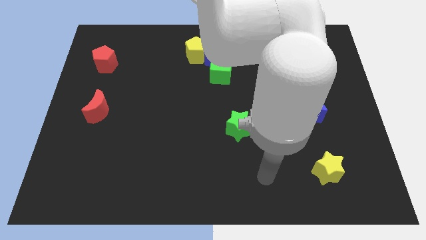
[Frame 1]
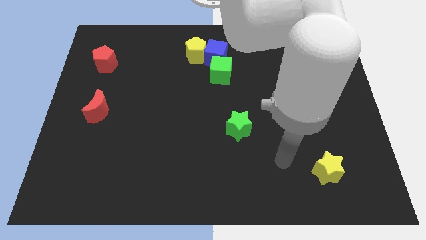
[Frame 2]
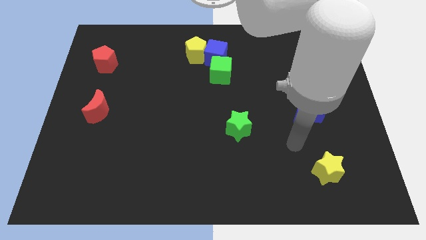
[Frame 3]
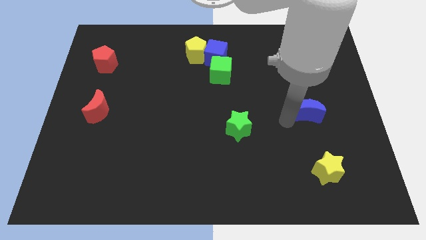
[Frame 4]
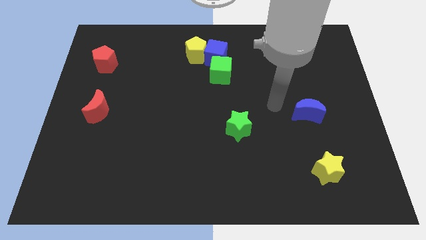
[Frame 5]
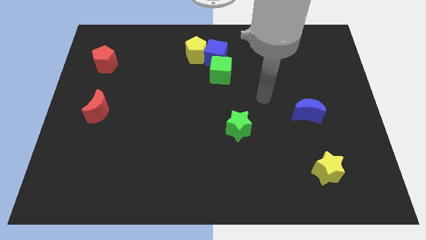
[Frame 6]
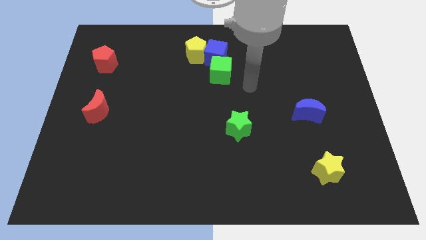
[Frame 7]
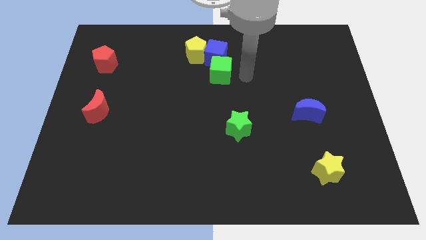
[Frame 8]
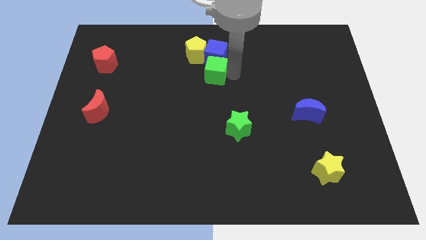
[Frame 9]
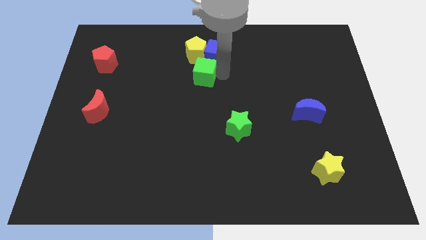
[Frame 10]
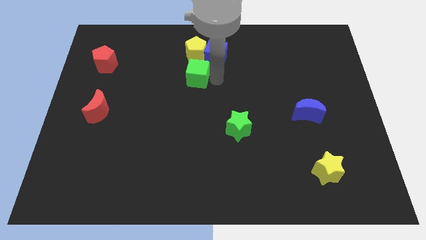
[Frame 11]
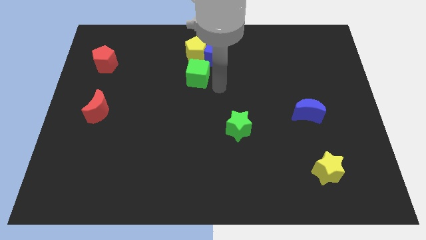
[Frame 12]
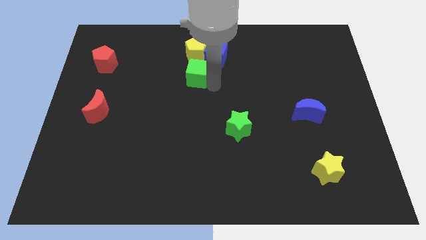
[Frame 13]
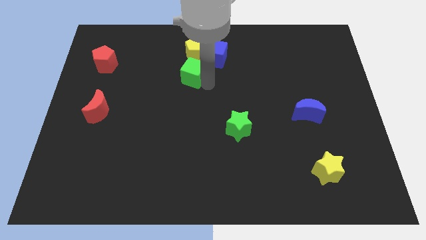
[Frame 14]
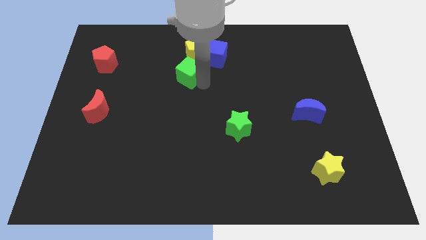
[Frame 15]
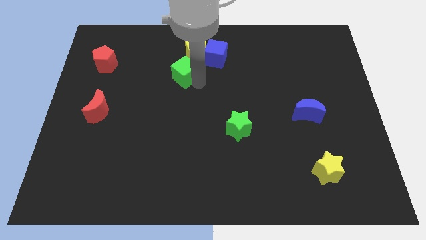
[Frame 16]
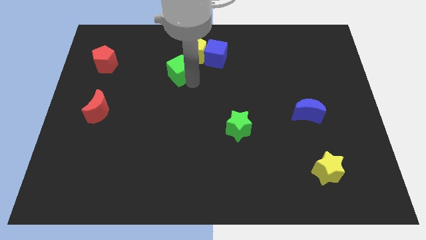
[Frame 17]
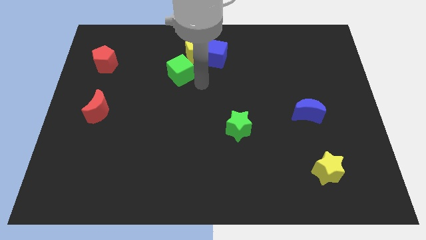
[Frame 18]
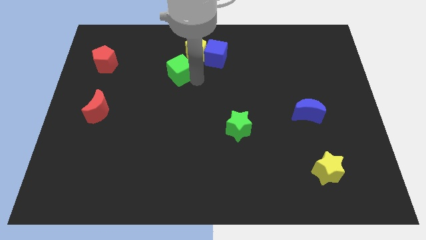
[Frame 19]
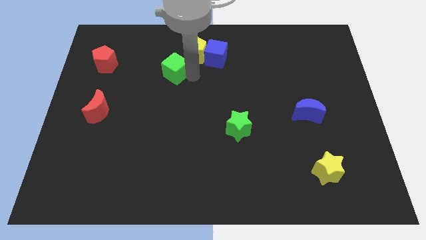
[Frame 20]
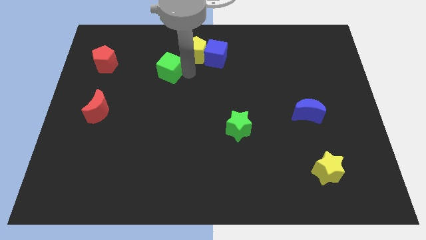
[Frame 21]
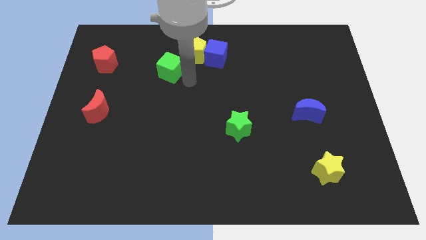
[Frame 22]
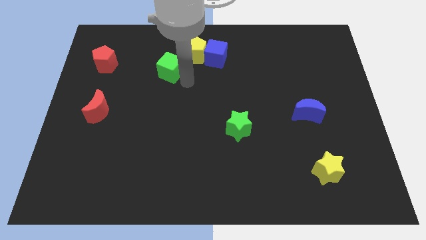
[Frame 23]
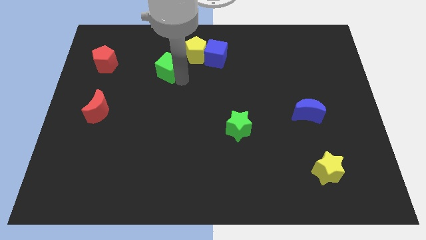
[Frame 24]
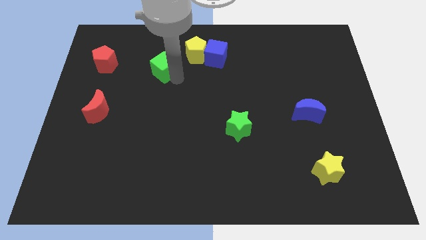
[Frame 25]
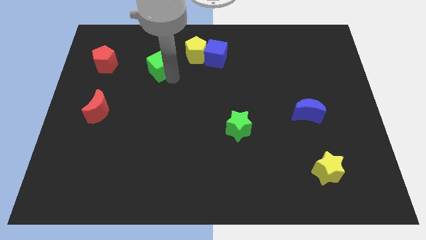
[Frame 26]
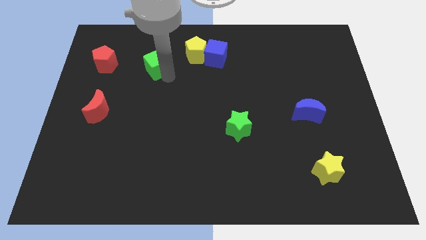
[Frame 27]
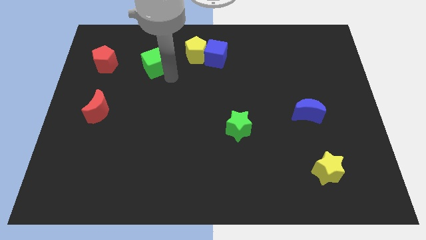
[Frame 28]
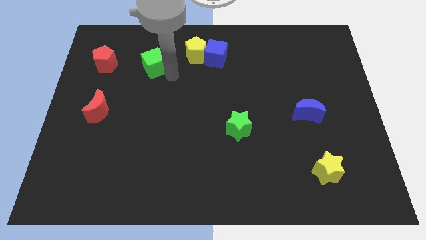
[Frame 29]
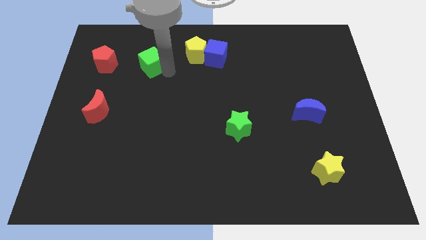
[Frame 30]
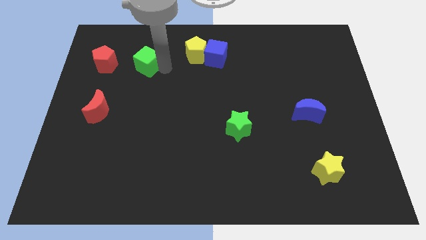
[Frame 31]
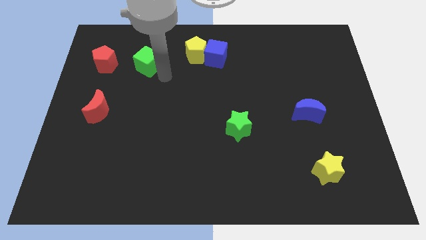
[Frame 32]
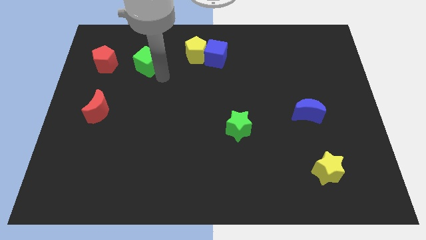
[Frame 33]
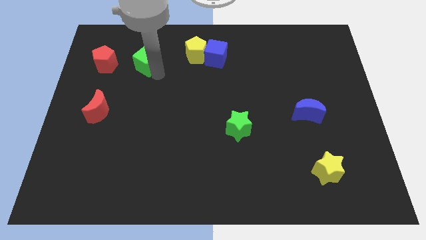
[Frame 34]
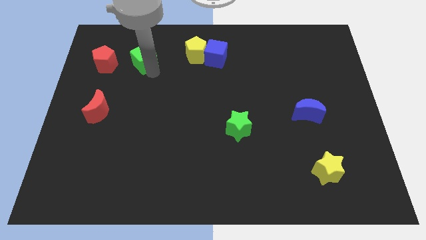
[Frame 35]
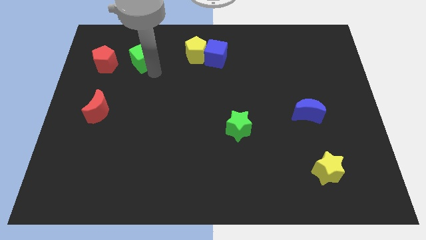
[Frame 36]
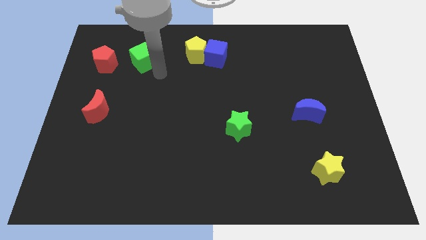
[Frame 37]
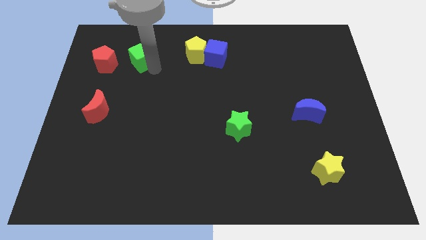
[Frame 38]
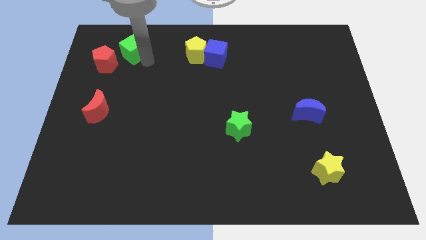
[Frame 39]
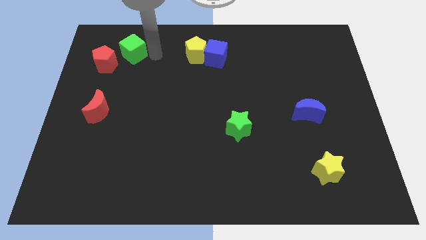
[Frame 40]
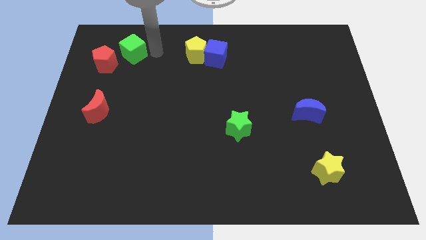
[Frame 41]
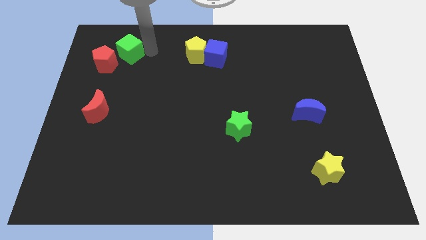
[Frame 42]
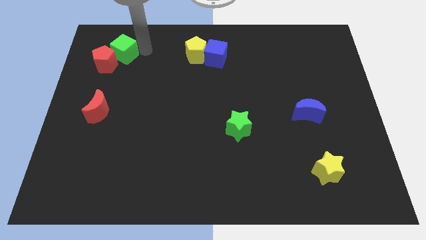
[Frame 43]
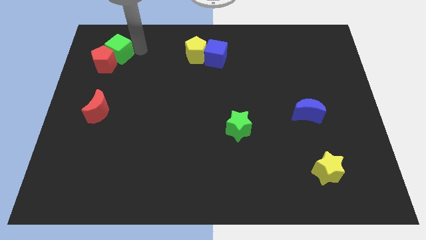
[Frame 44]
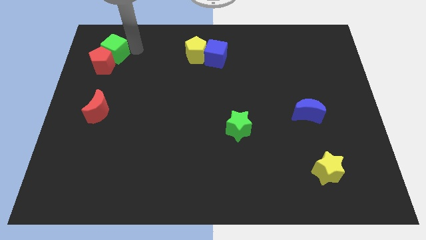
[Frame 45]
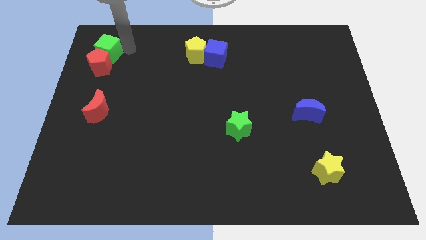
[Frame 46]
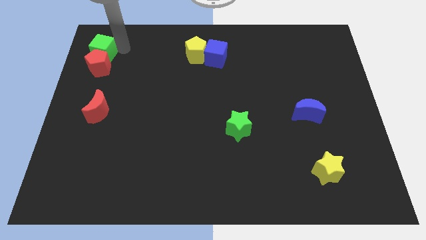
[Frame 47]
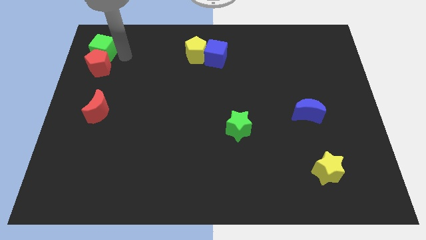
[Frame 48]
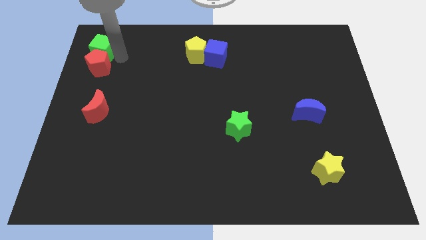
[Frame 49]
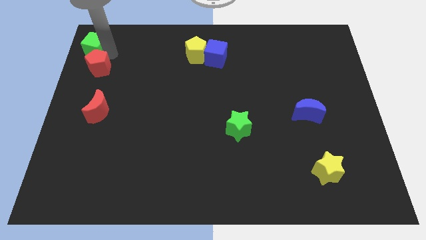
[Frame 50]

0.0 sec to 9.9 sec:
push the green cube to the top left corner

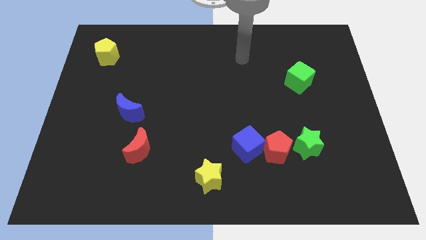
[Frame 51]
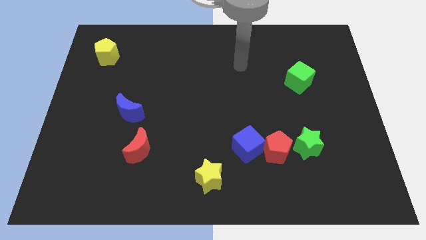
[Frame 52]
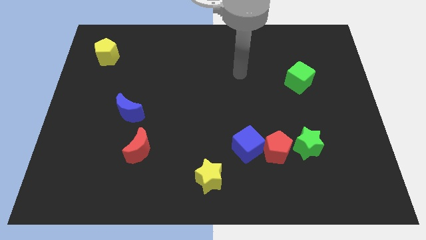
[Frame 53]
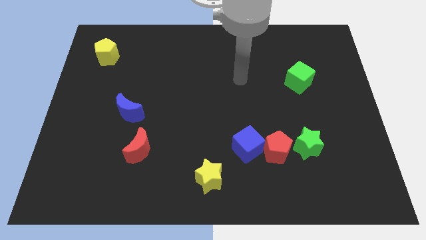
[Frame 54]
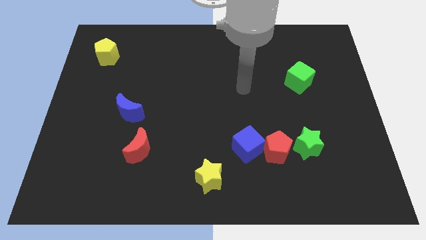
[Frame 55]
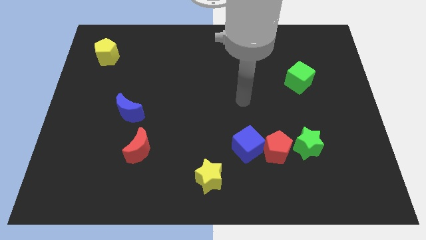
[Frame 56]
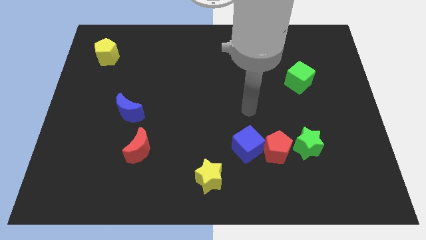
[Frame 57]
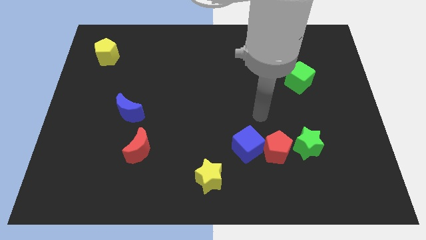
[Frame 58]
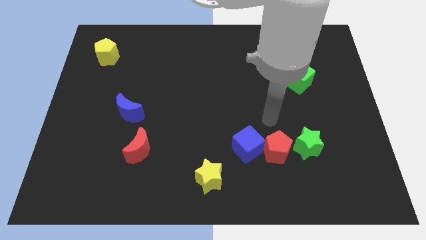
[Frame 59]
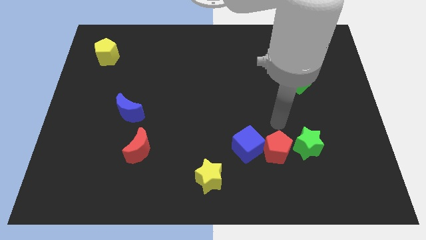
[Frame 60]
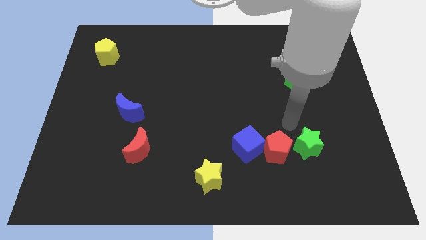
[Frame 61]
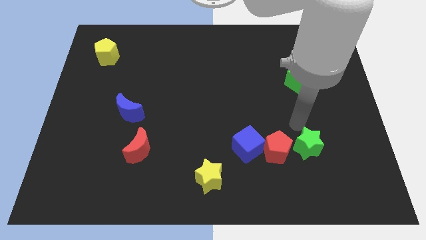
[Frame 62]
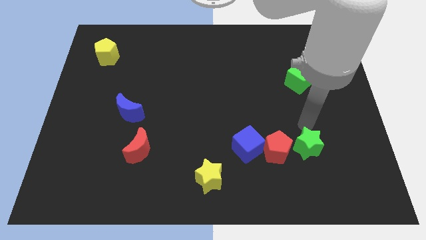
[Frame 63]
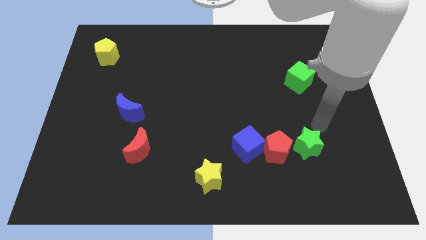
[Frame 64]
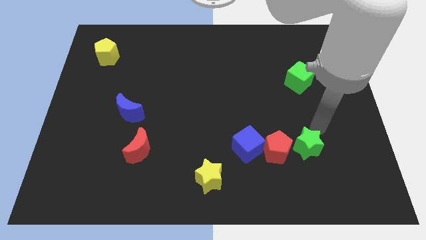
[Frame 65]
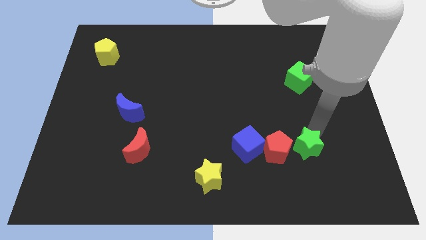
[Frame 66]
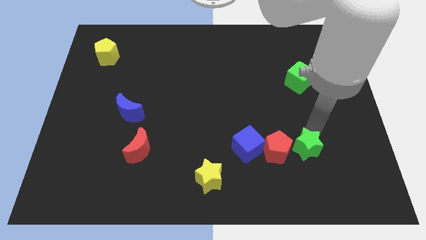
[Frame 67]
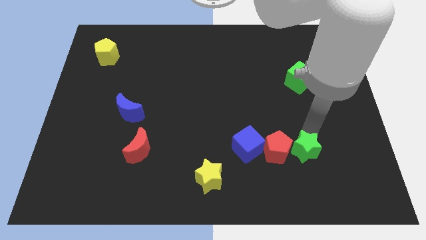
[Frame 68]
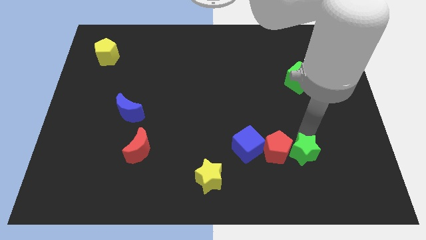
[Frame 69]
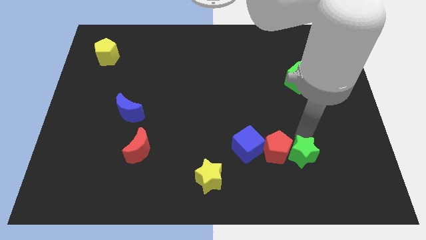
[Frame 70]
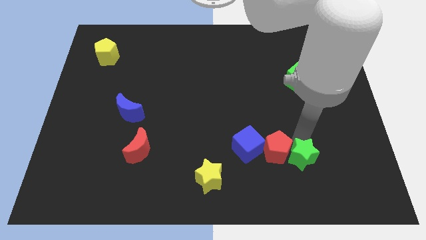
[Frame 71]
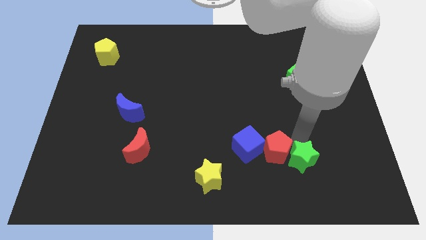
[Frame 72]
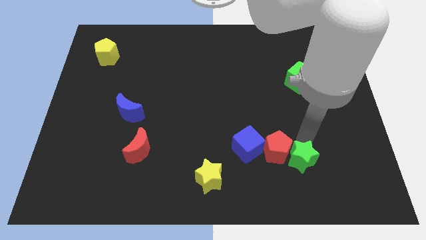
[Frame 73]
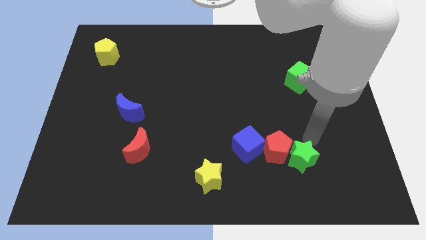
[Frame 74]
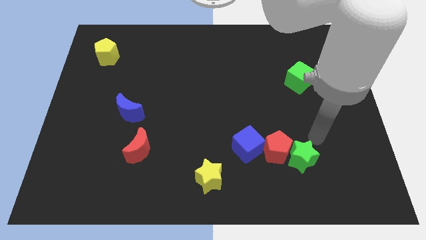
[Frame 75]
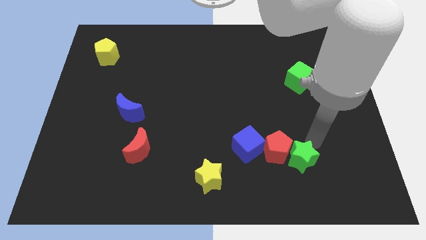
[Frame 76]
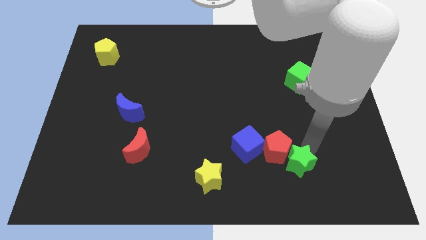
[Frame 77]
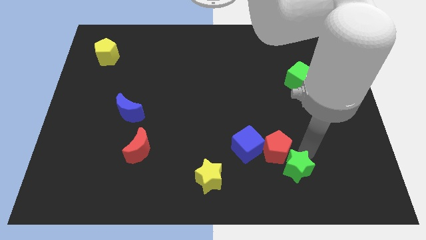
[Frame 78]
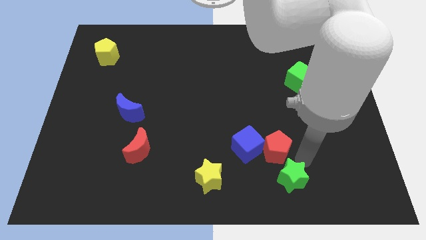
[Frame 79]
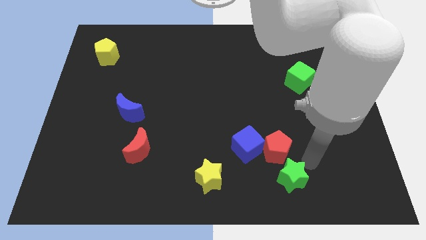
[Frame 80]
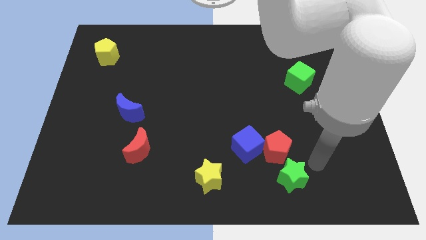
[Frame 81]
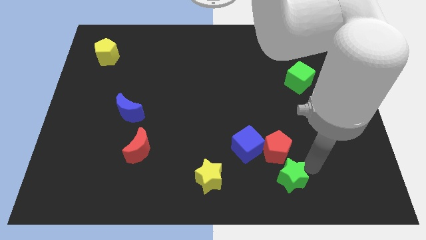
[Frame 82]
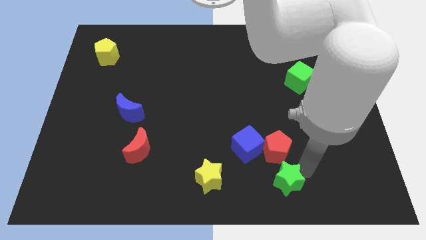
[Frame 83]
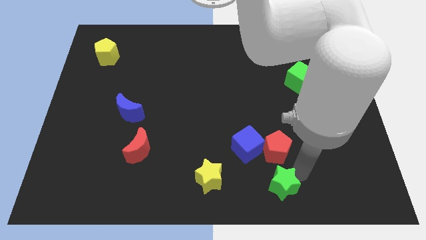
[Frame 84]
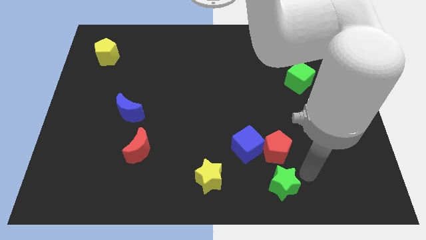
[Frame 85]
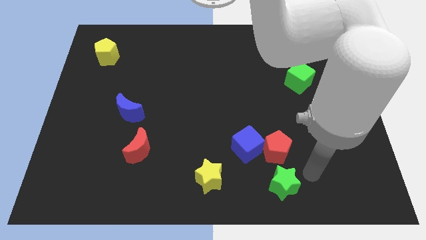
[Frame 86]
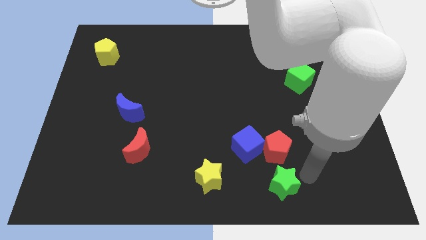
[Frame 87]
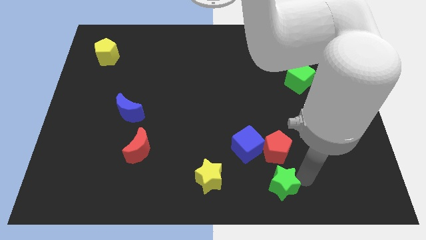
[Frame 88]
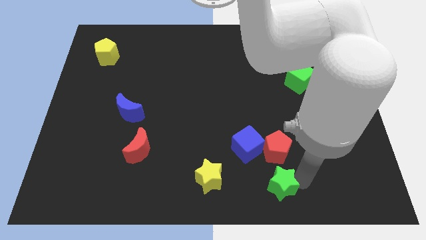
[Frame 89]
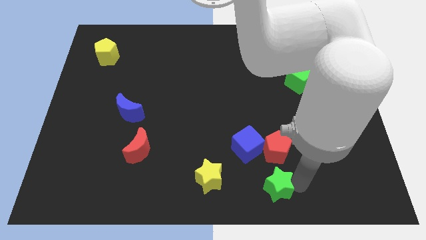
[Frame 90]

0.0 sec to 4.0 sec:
slide the green star to the bottom
